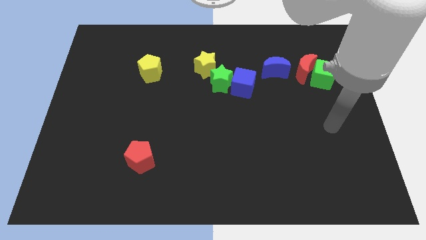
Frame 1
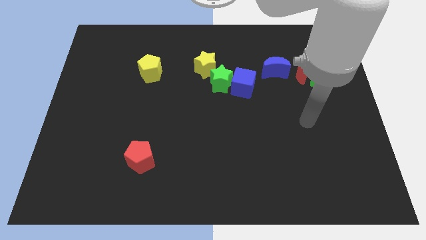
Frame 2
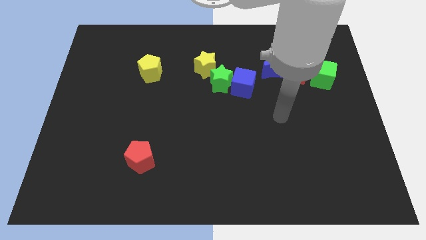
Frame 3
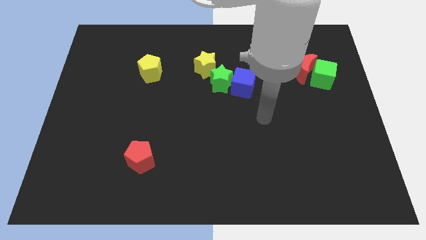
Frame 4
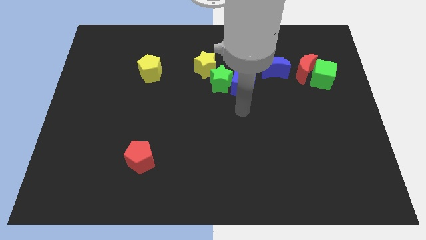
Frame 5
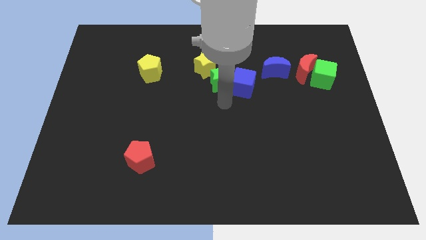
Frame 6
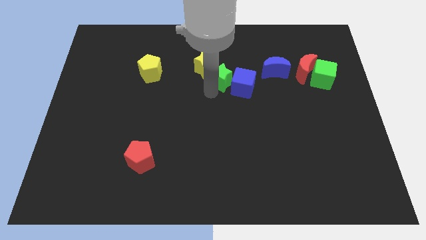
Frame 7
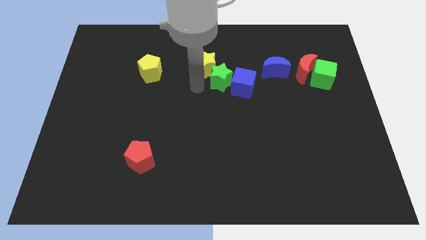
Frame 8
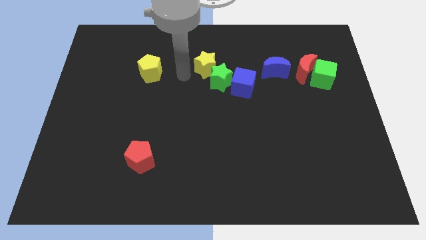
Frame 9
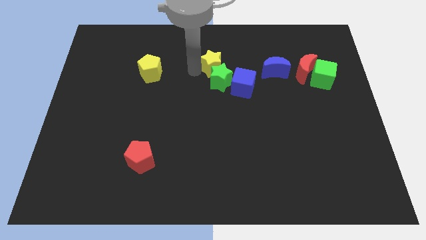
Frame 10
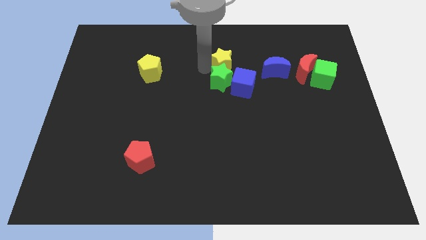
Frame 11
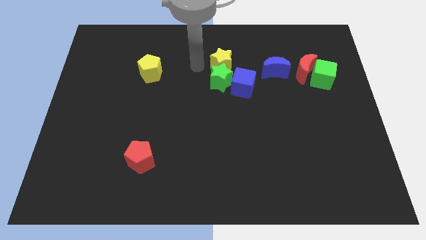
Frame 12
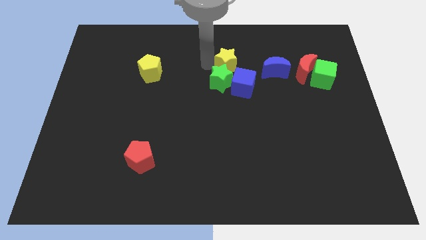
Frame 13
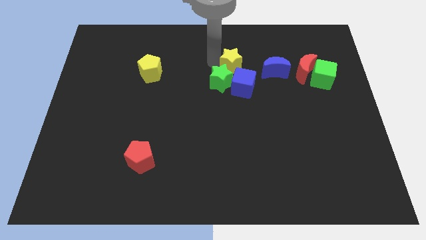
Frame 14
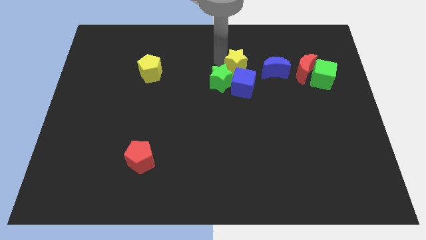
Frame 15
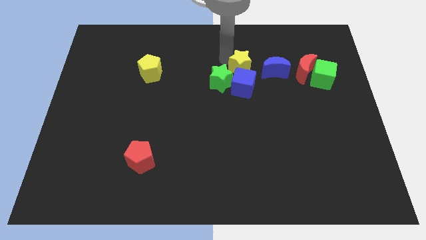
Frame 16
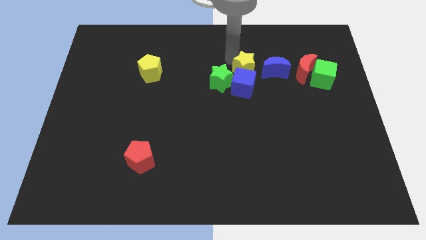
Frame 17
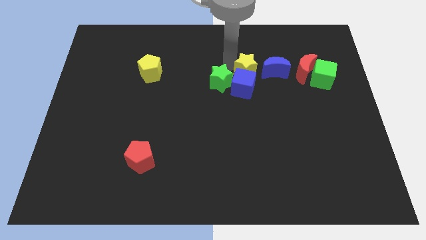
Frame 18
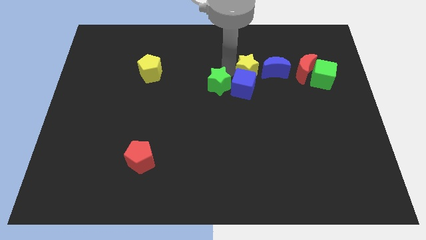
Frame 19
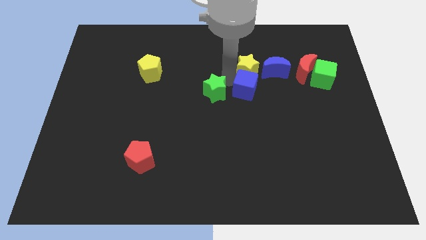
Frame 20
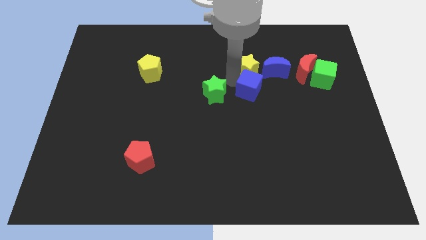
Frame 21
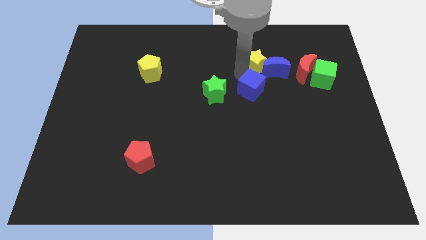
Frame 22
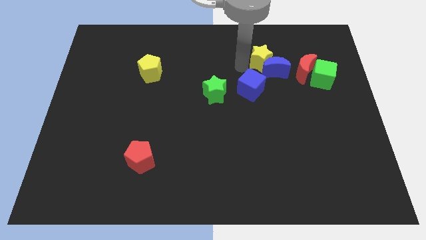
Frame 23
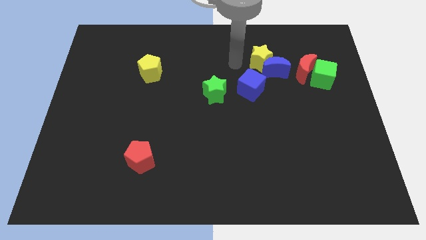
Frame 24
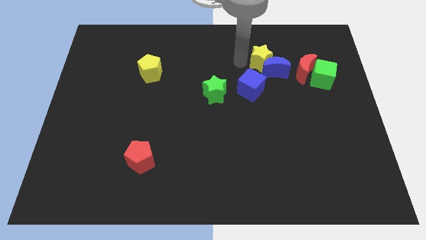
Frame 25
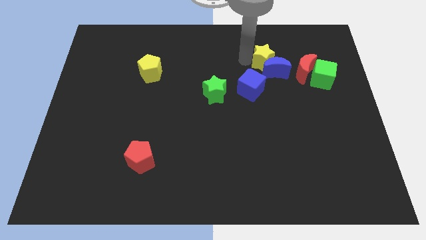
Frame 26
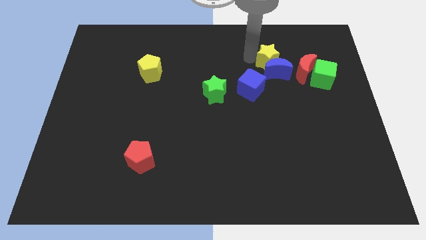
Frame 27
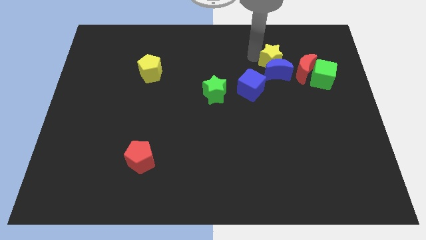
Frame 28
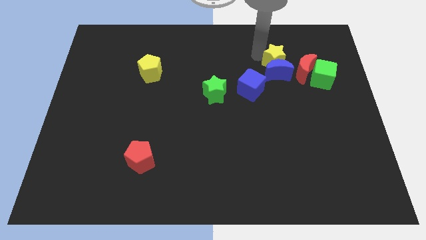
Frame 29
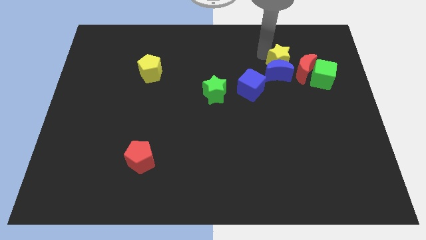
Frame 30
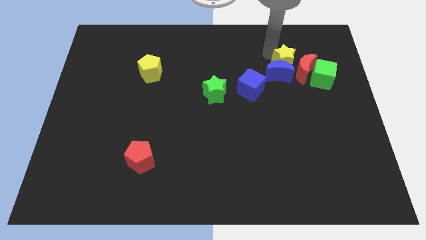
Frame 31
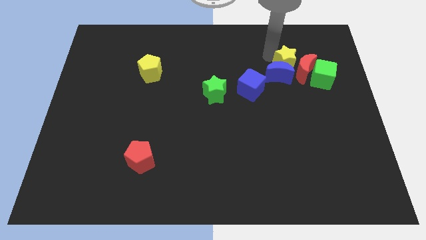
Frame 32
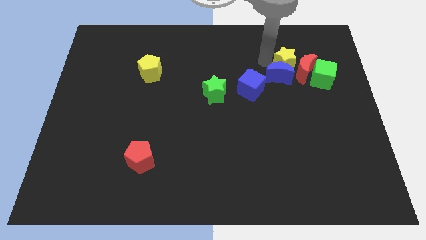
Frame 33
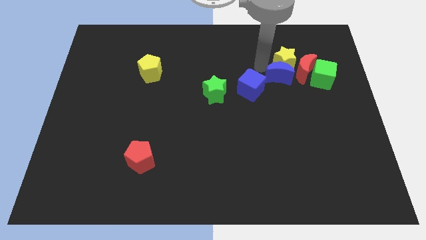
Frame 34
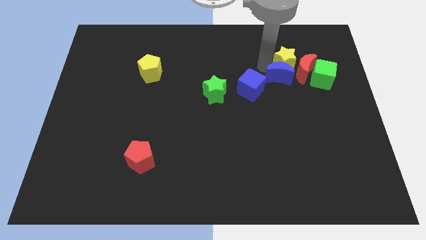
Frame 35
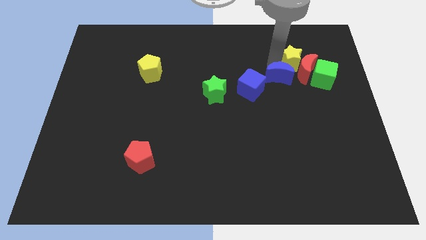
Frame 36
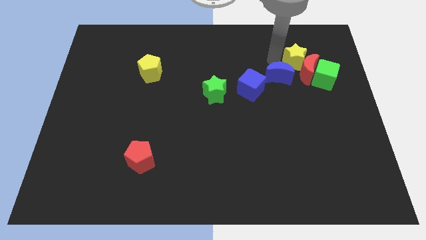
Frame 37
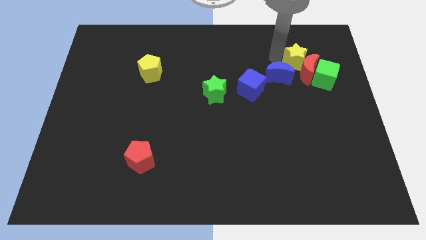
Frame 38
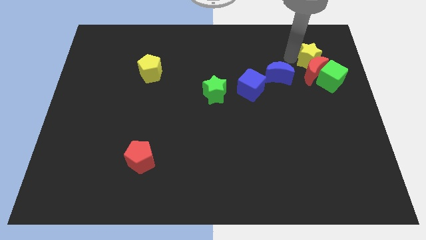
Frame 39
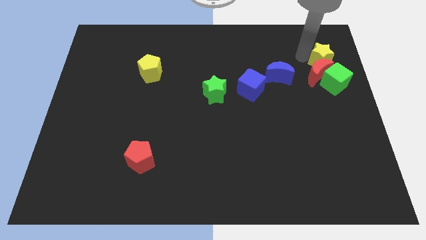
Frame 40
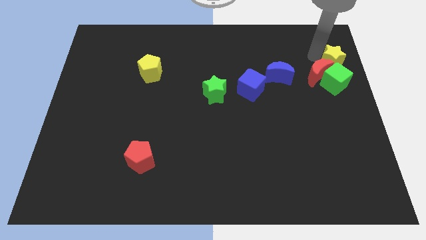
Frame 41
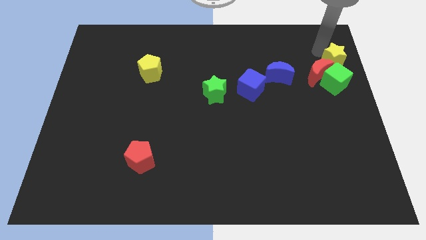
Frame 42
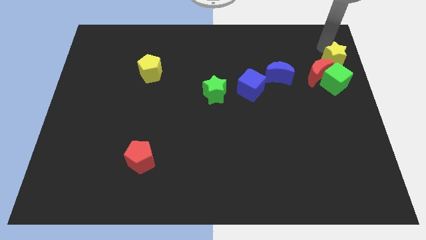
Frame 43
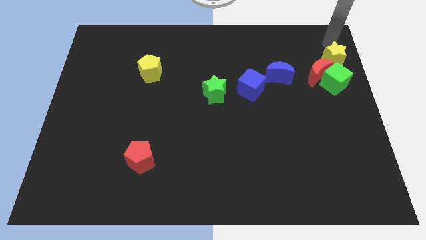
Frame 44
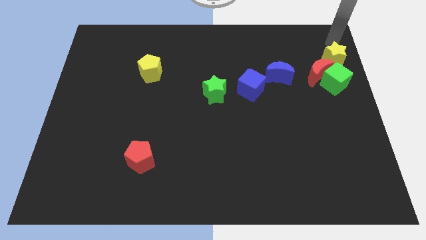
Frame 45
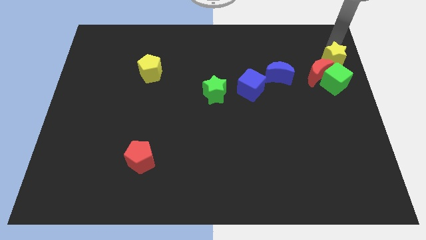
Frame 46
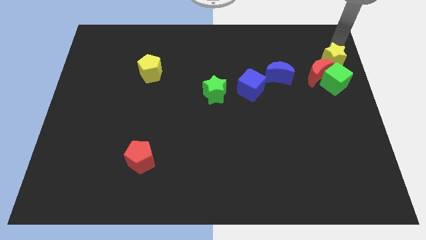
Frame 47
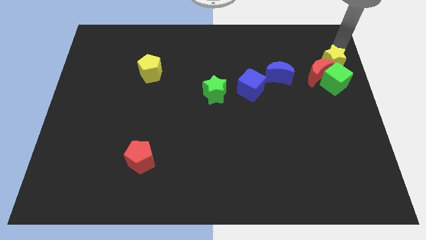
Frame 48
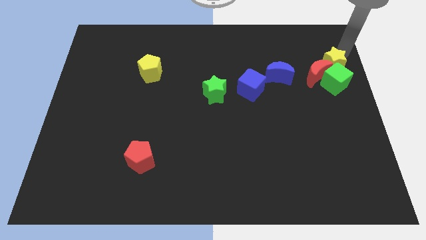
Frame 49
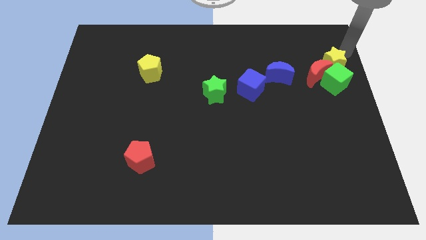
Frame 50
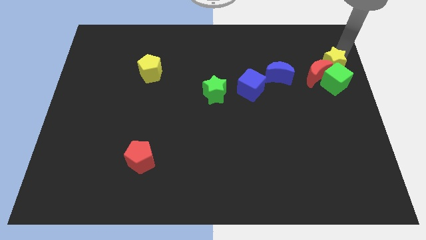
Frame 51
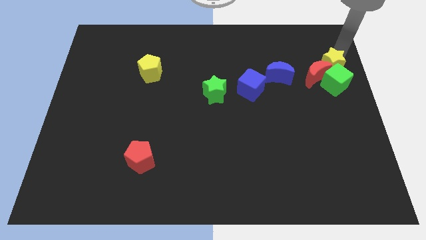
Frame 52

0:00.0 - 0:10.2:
move the yellow star to the right of the blue moon

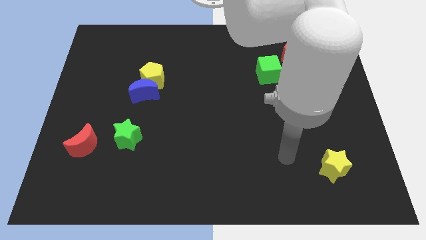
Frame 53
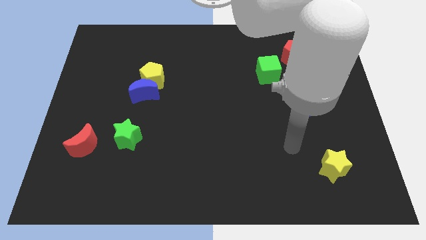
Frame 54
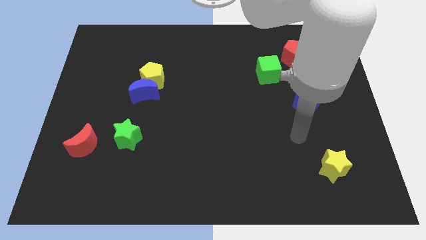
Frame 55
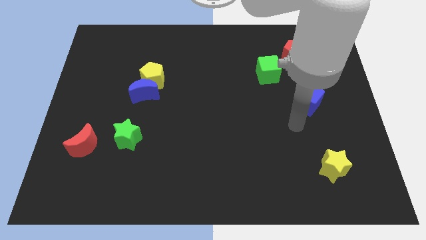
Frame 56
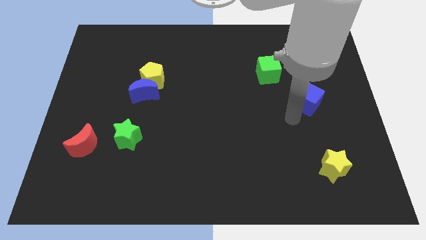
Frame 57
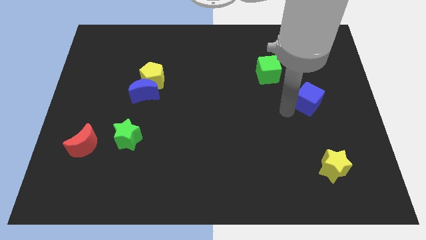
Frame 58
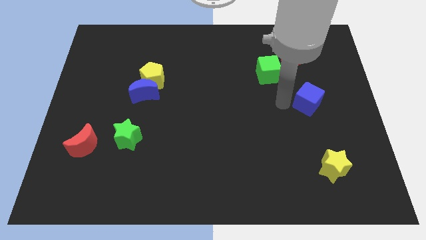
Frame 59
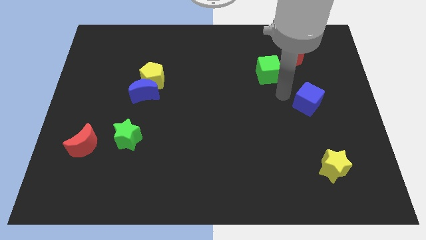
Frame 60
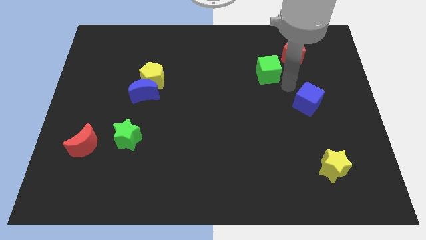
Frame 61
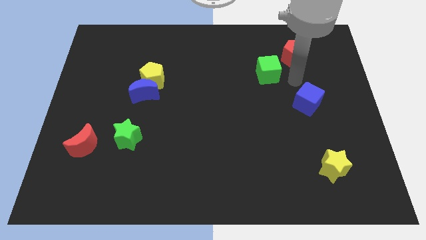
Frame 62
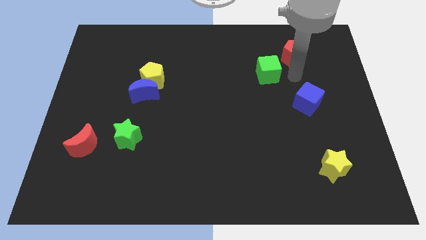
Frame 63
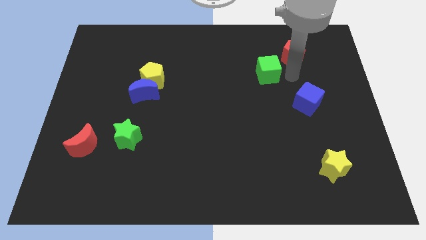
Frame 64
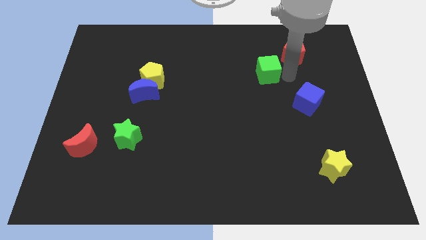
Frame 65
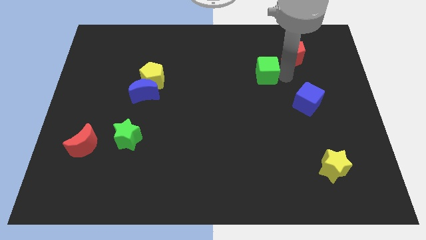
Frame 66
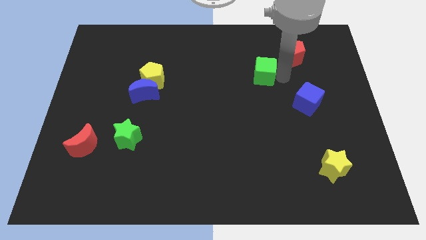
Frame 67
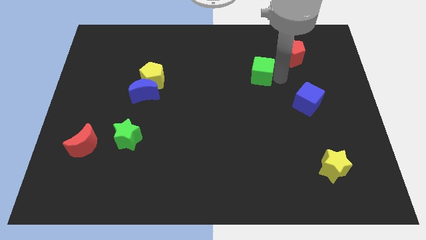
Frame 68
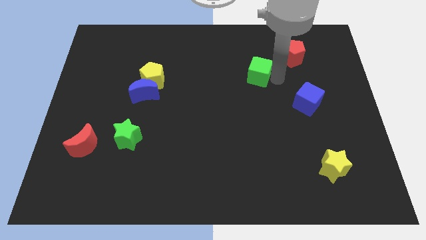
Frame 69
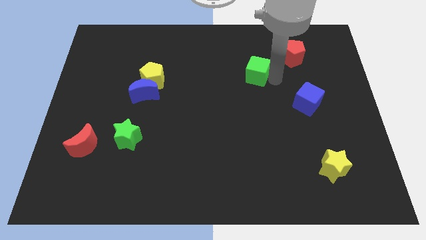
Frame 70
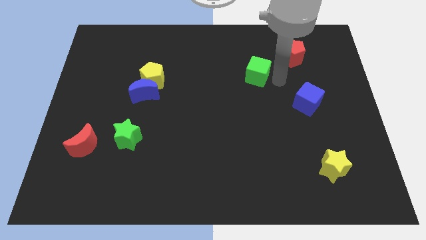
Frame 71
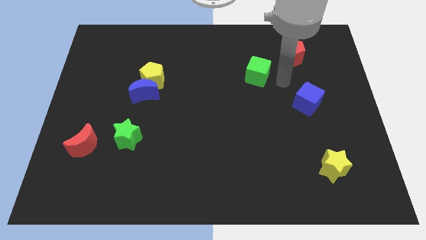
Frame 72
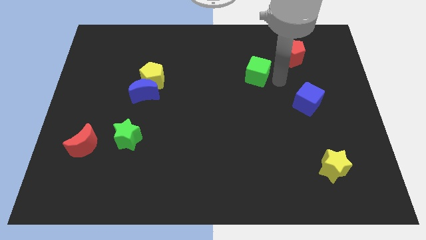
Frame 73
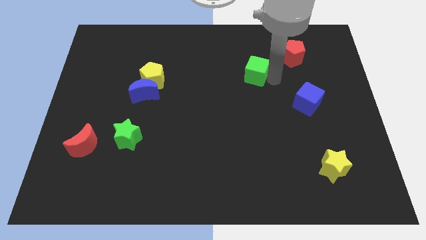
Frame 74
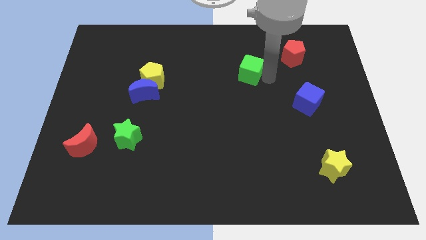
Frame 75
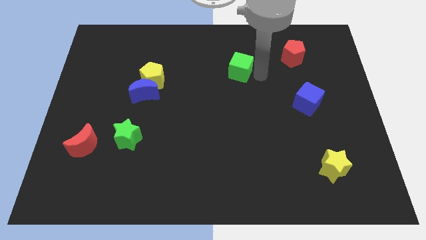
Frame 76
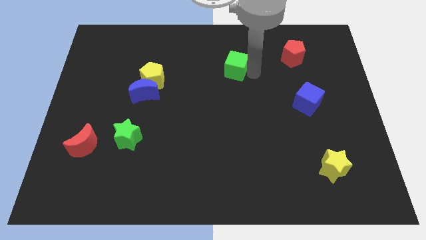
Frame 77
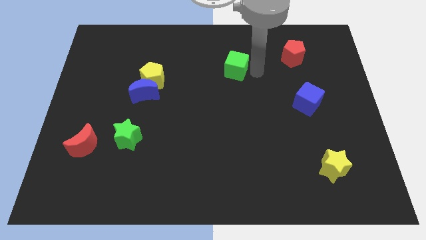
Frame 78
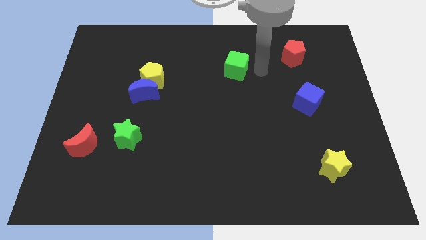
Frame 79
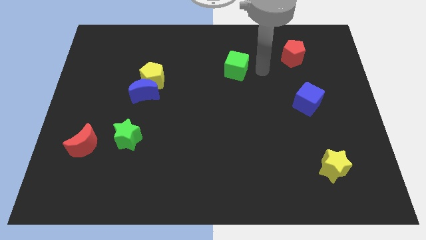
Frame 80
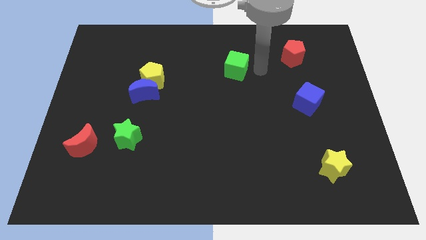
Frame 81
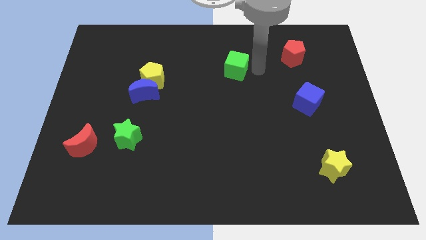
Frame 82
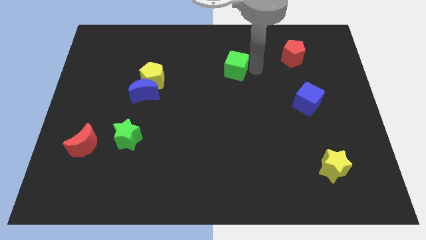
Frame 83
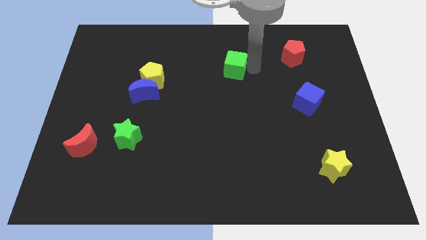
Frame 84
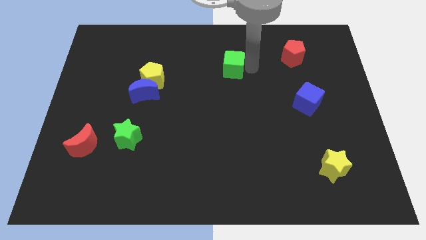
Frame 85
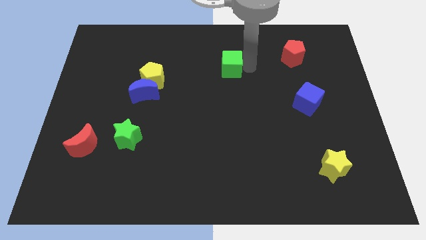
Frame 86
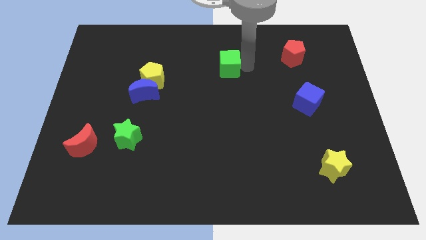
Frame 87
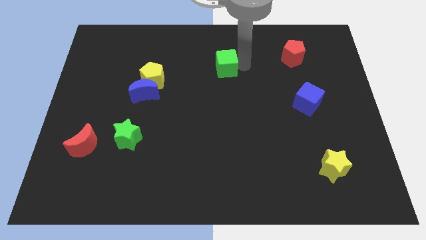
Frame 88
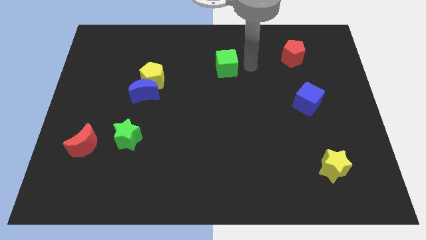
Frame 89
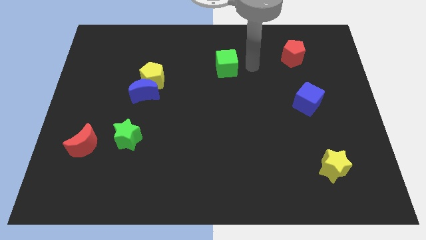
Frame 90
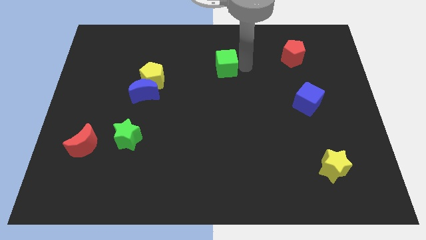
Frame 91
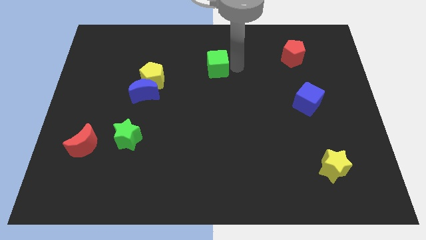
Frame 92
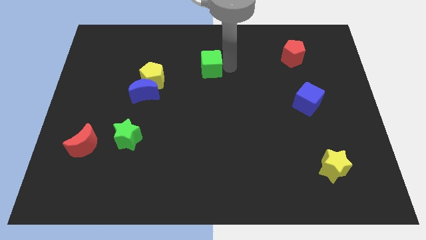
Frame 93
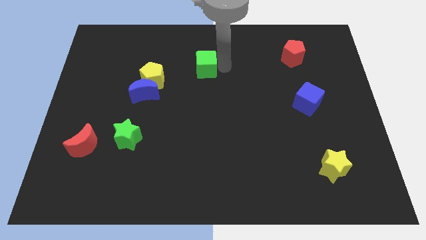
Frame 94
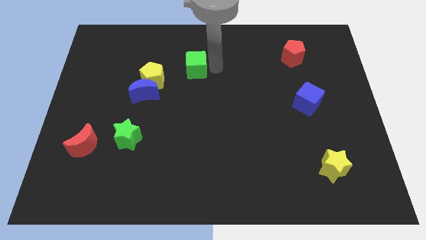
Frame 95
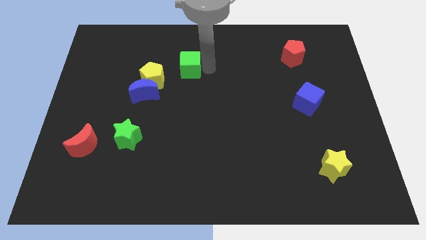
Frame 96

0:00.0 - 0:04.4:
move the green cube to the top right of the yellow pentagon
